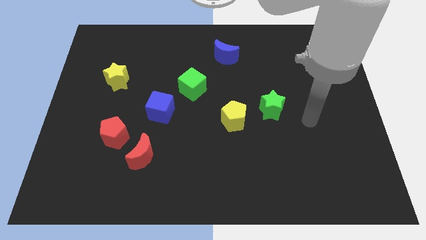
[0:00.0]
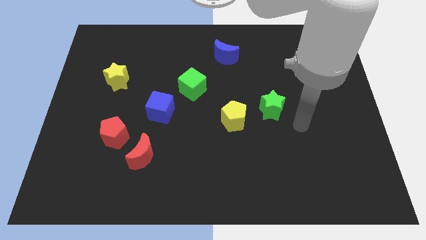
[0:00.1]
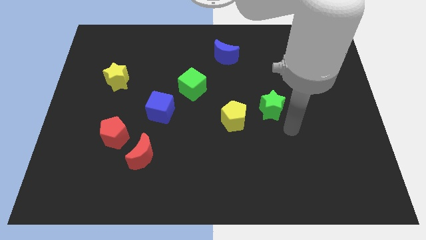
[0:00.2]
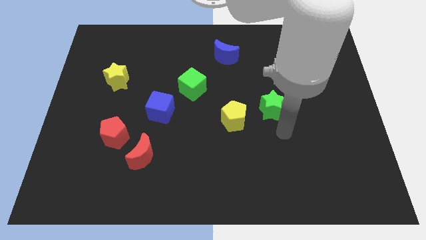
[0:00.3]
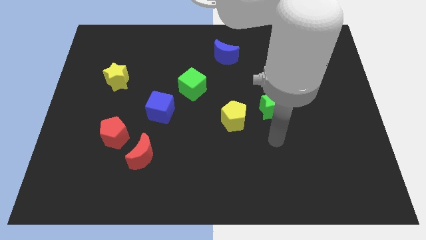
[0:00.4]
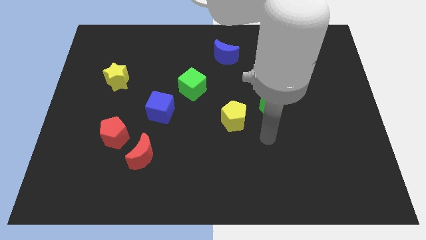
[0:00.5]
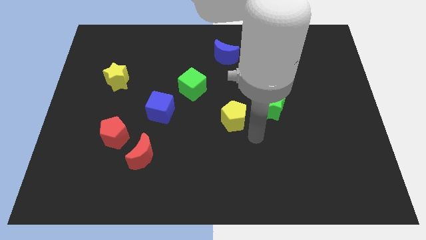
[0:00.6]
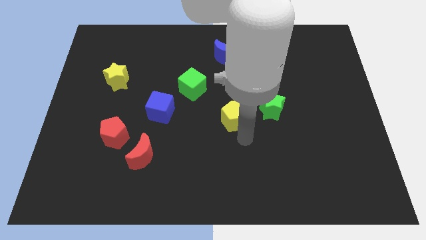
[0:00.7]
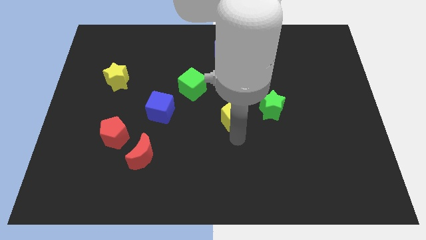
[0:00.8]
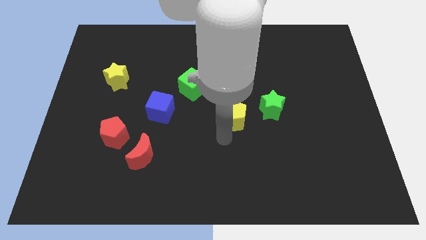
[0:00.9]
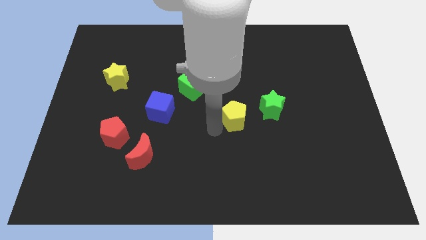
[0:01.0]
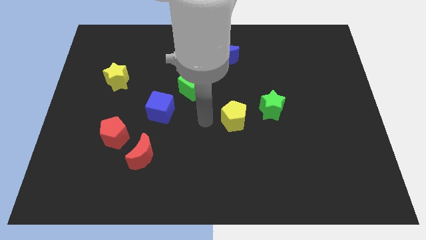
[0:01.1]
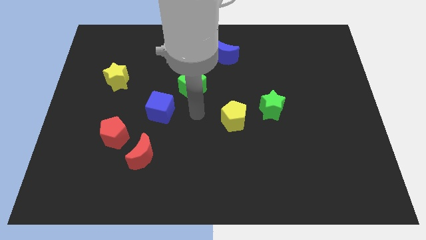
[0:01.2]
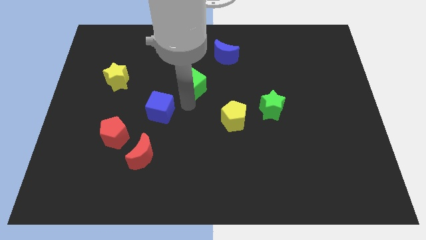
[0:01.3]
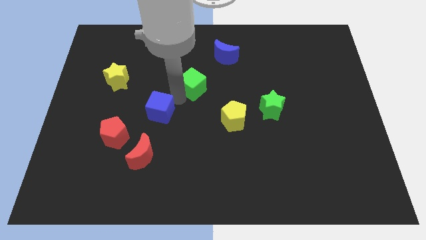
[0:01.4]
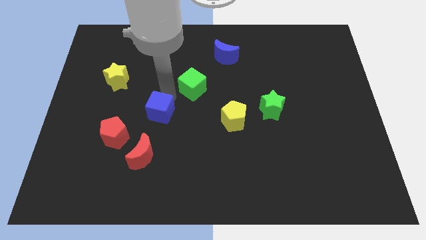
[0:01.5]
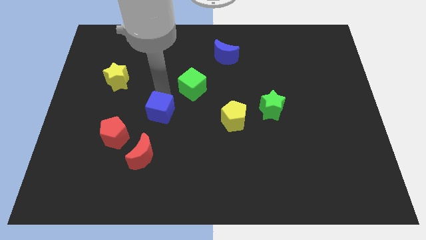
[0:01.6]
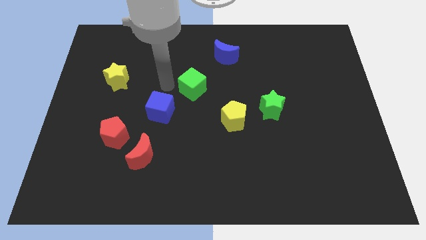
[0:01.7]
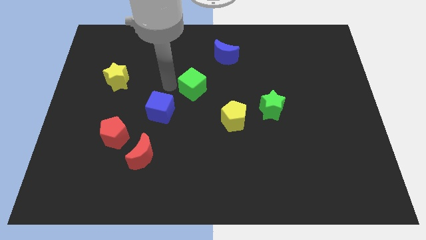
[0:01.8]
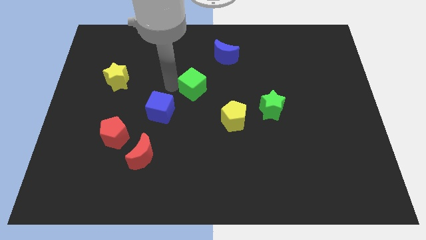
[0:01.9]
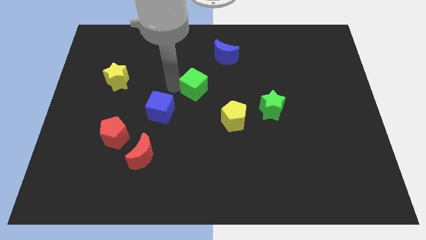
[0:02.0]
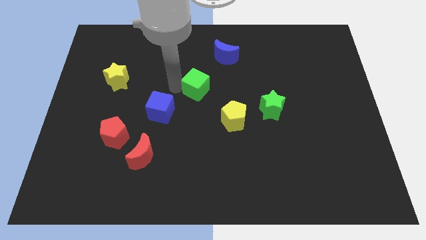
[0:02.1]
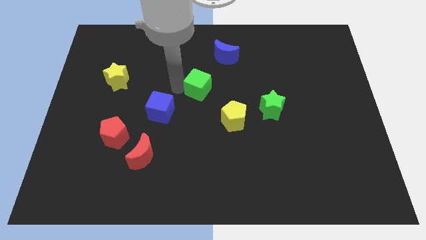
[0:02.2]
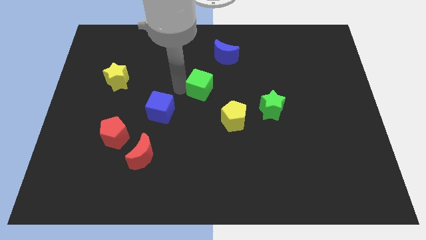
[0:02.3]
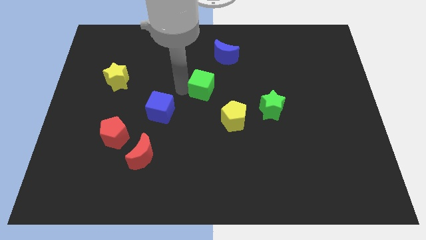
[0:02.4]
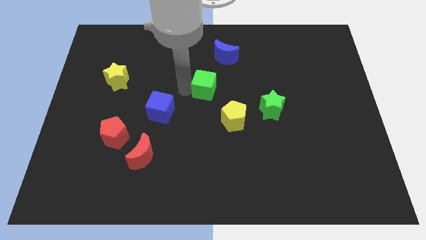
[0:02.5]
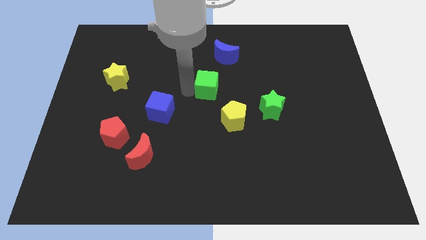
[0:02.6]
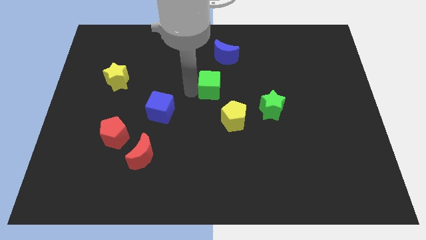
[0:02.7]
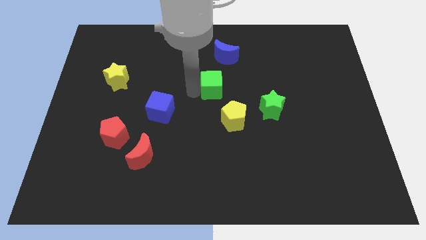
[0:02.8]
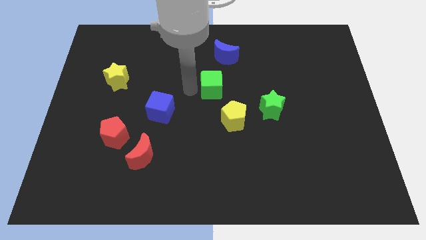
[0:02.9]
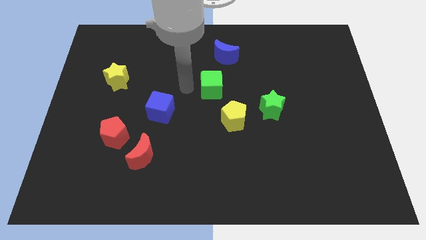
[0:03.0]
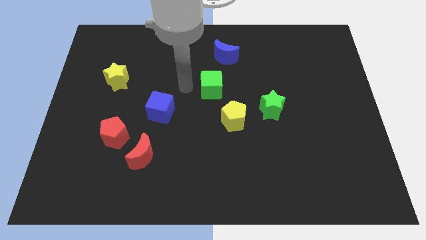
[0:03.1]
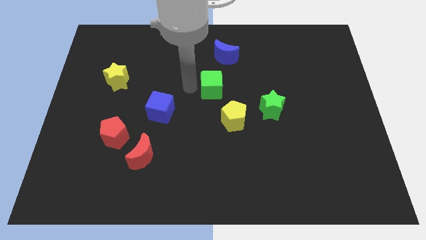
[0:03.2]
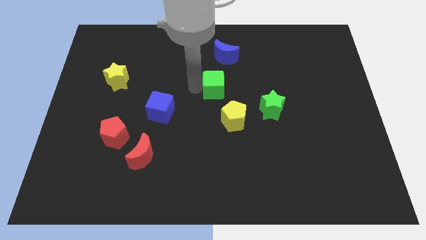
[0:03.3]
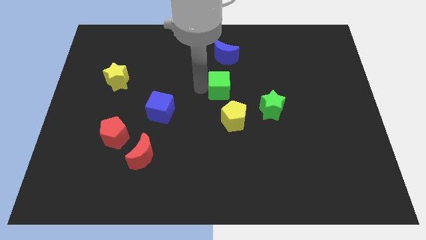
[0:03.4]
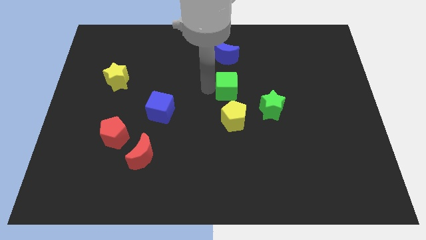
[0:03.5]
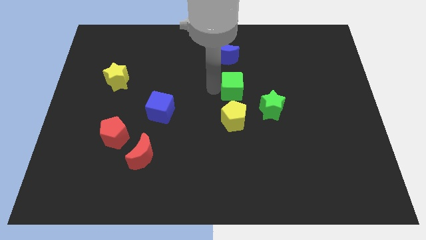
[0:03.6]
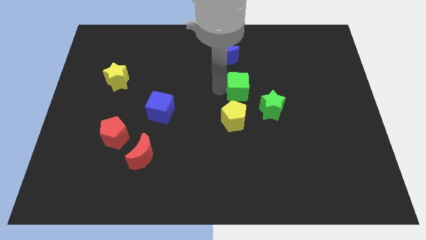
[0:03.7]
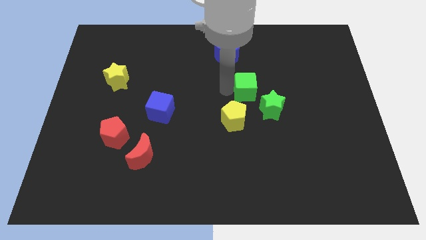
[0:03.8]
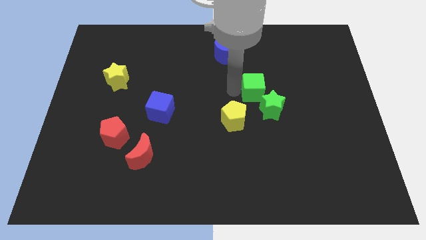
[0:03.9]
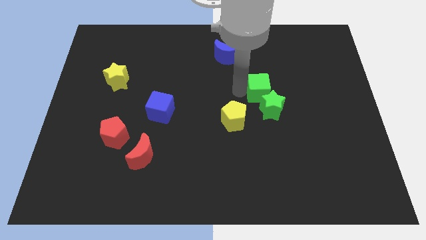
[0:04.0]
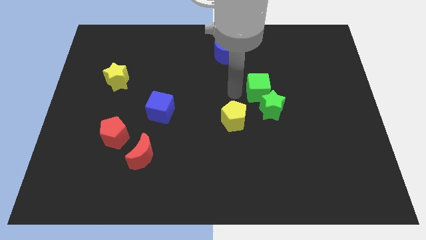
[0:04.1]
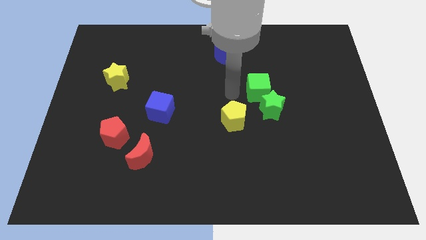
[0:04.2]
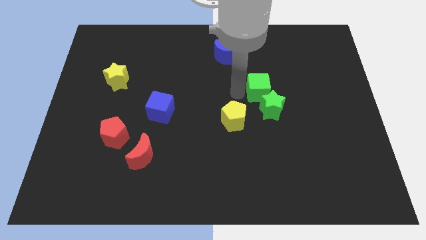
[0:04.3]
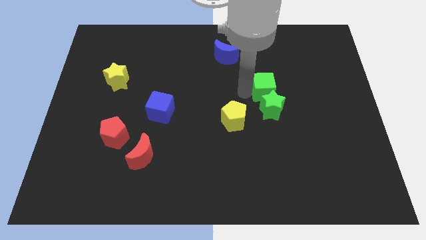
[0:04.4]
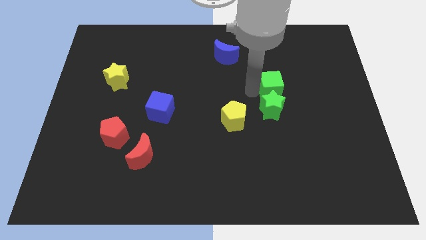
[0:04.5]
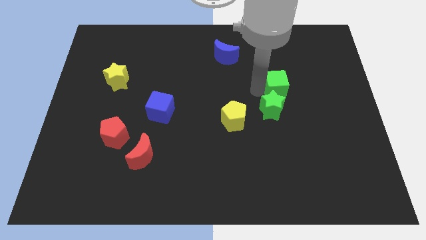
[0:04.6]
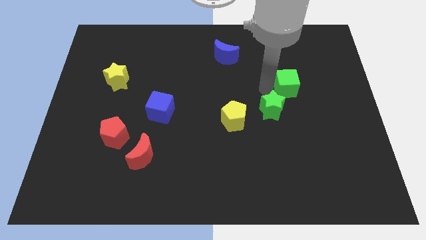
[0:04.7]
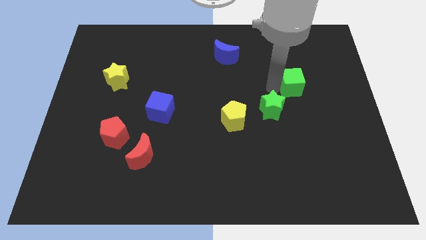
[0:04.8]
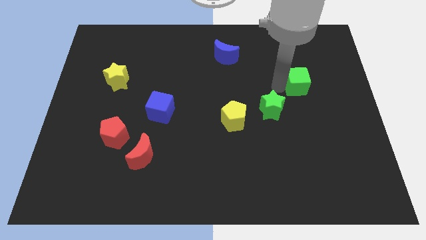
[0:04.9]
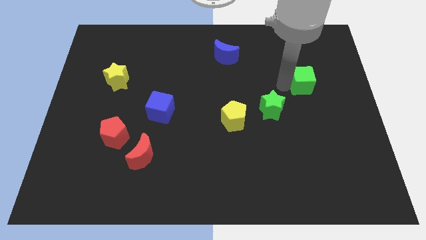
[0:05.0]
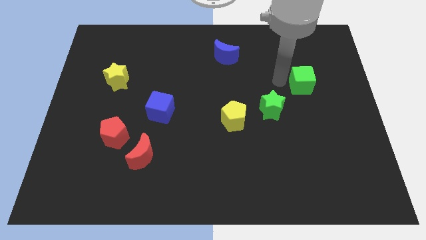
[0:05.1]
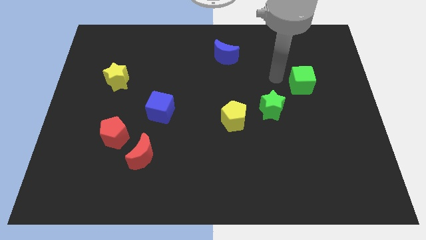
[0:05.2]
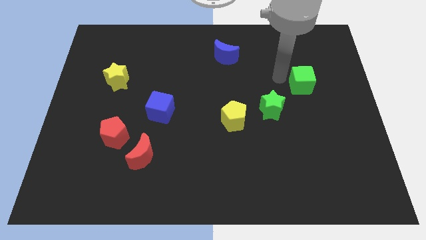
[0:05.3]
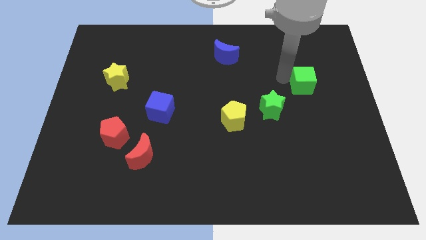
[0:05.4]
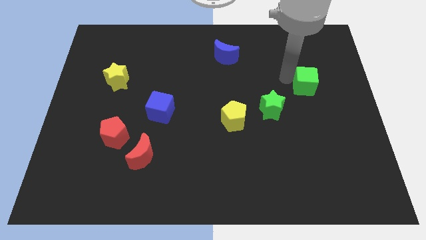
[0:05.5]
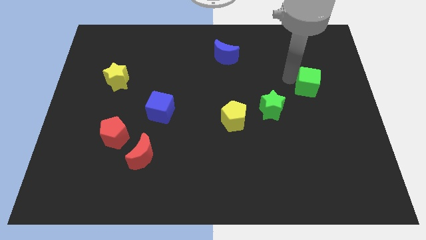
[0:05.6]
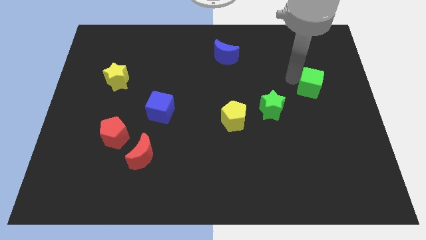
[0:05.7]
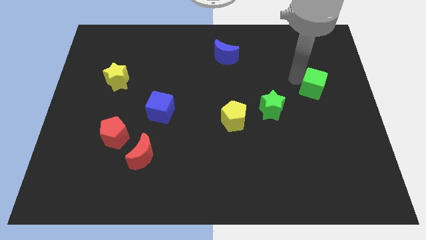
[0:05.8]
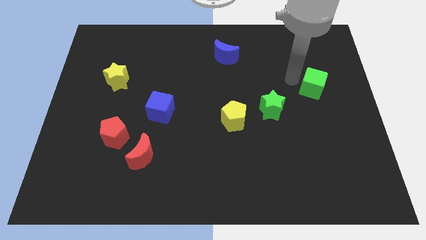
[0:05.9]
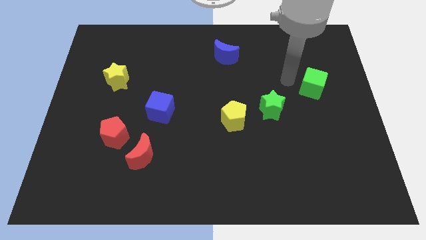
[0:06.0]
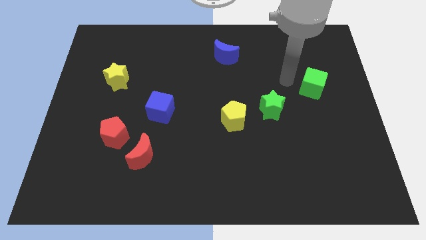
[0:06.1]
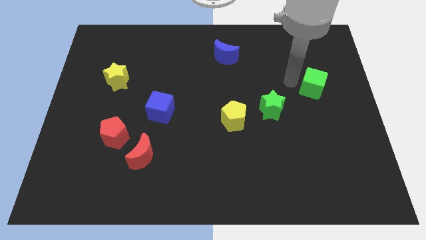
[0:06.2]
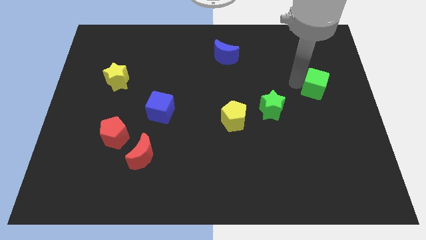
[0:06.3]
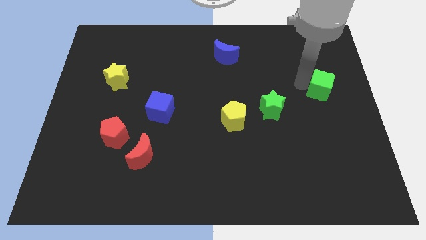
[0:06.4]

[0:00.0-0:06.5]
move the green cube to the right side of the board
